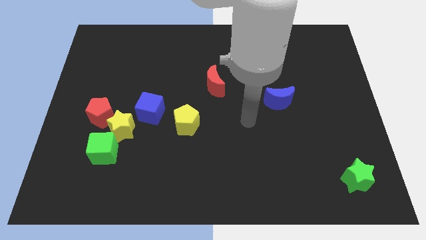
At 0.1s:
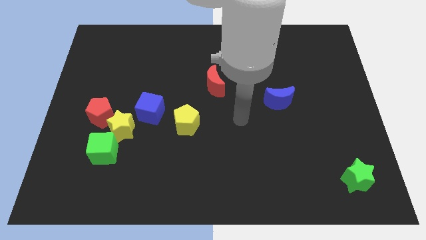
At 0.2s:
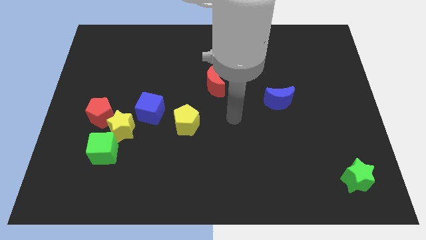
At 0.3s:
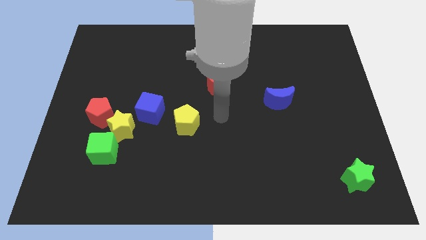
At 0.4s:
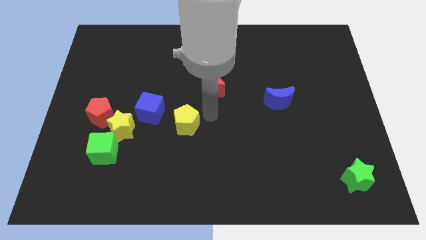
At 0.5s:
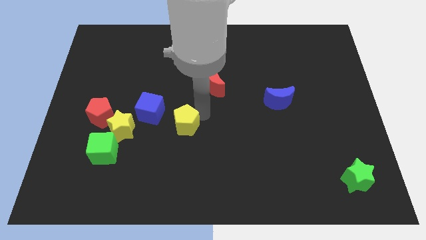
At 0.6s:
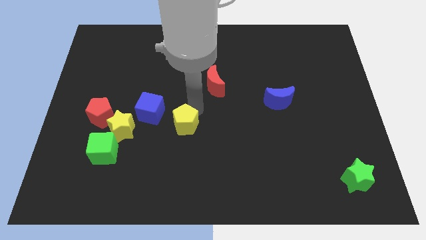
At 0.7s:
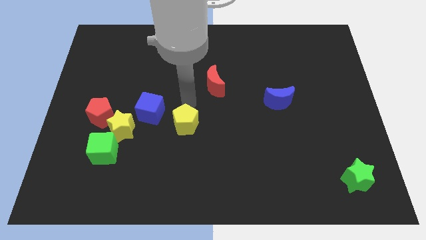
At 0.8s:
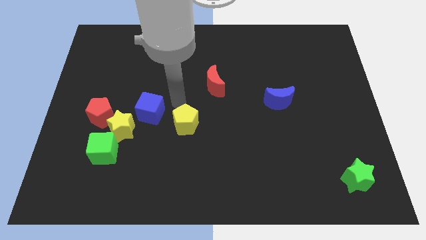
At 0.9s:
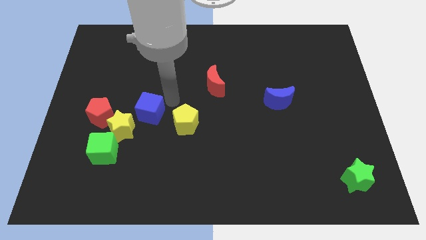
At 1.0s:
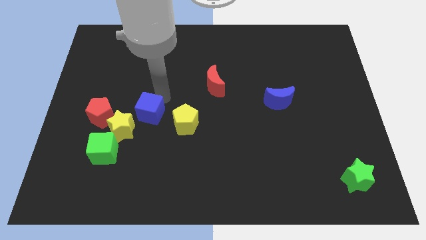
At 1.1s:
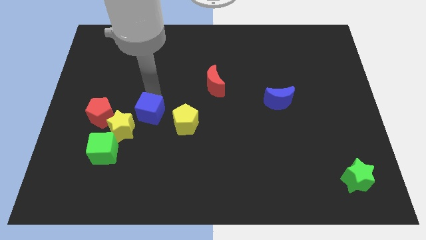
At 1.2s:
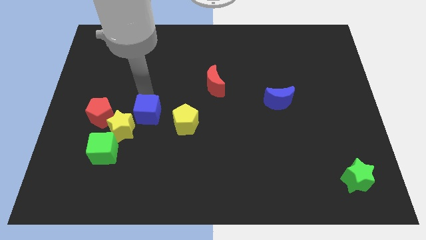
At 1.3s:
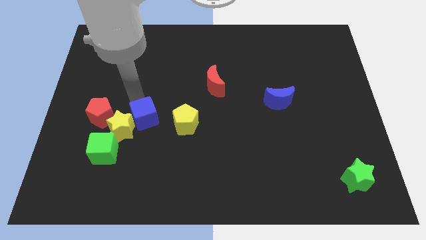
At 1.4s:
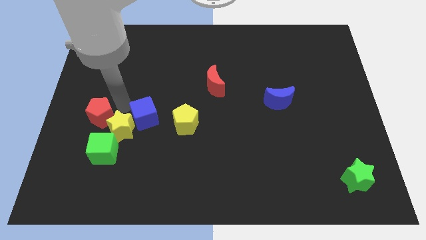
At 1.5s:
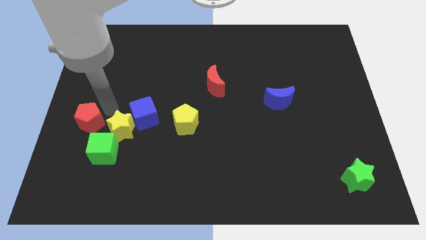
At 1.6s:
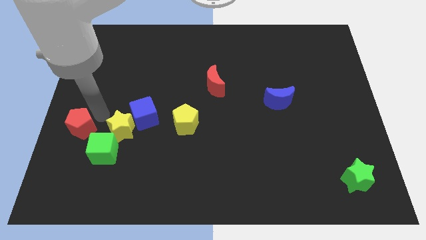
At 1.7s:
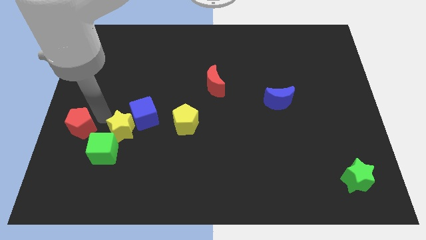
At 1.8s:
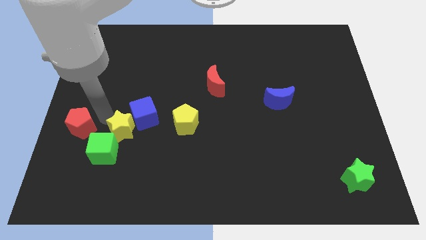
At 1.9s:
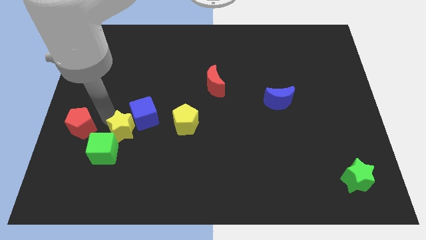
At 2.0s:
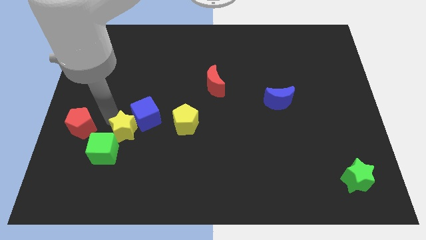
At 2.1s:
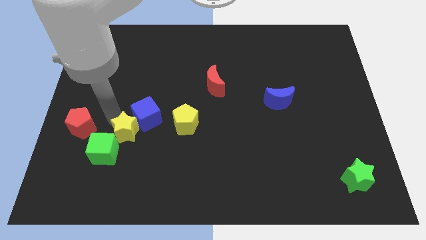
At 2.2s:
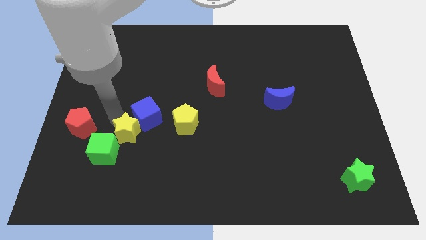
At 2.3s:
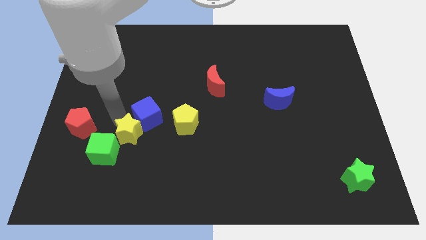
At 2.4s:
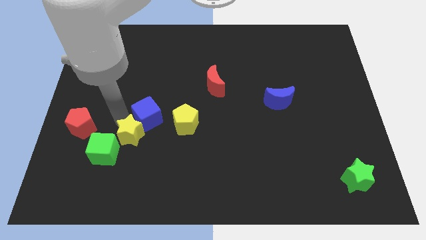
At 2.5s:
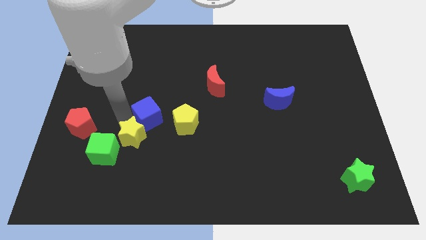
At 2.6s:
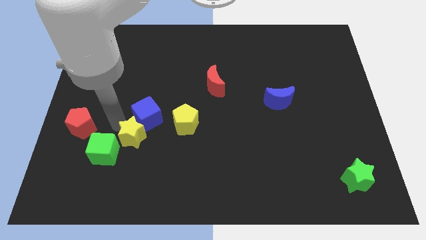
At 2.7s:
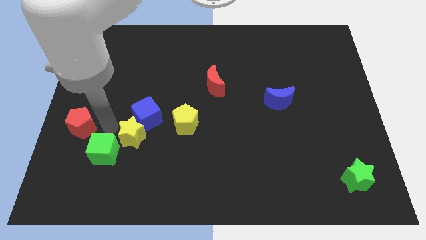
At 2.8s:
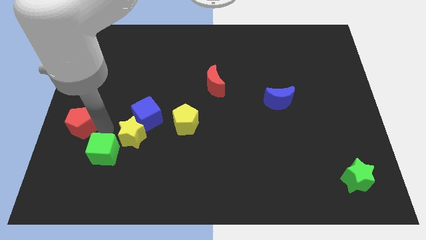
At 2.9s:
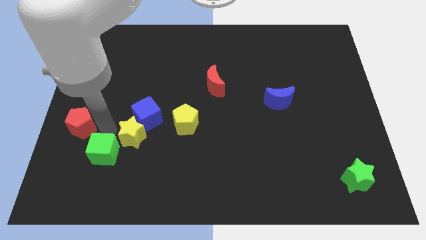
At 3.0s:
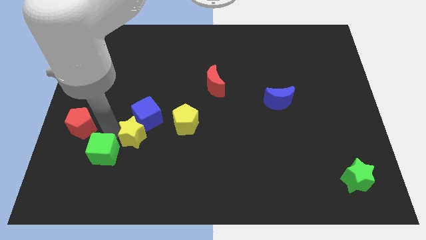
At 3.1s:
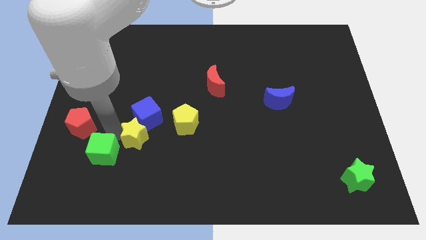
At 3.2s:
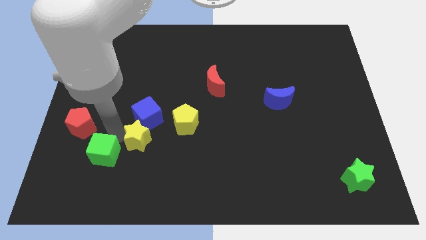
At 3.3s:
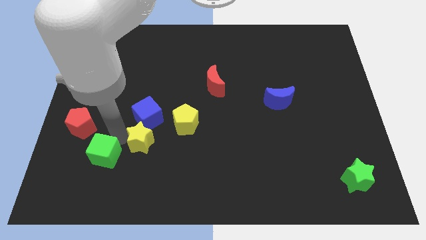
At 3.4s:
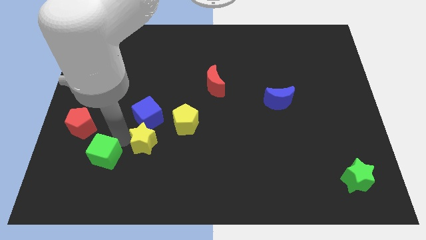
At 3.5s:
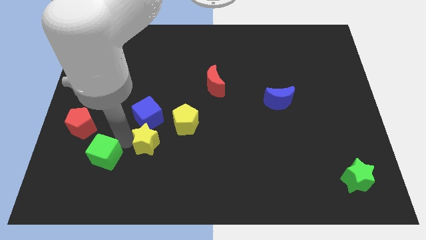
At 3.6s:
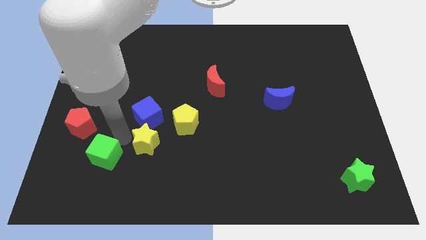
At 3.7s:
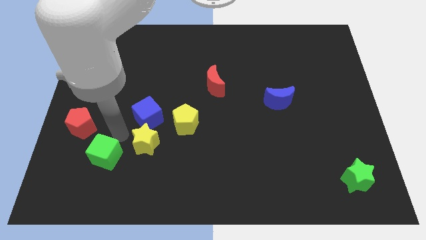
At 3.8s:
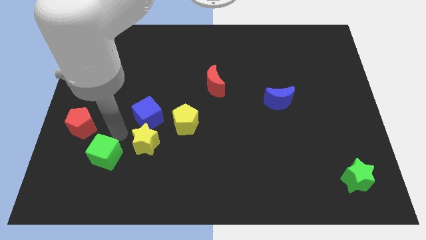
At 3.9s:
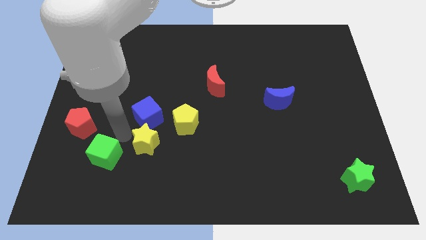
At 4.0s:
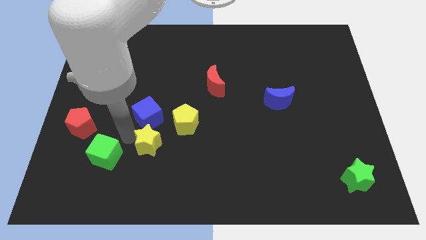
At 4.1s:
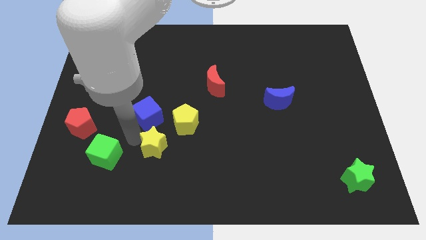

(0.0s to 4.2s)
move the yellow star away from the red pentagon, green cube, and blue cube

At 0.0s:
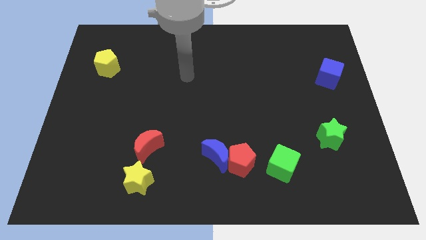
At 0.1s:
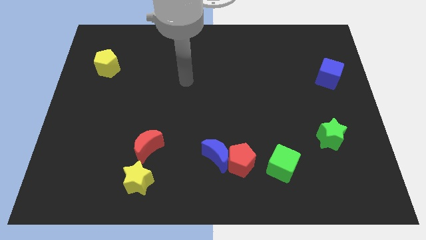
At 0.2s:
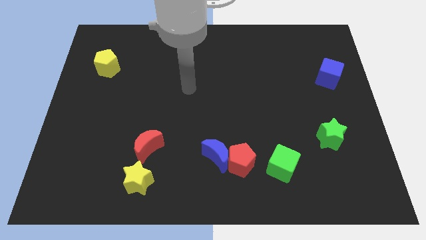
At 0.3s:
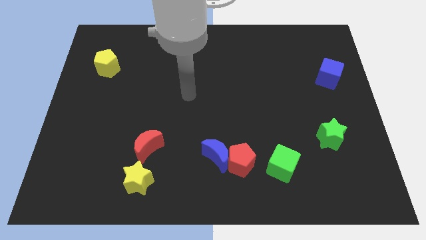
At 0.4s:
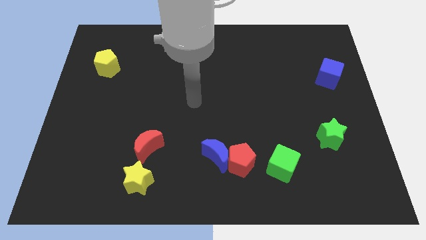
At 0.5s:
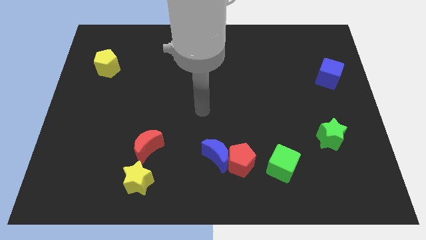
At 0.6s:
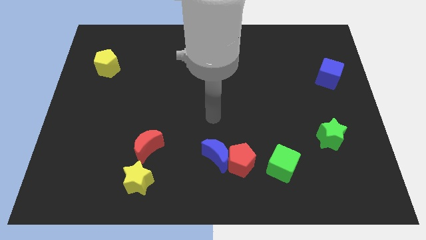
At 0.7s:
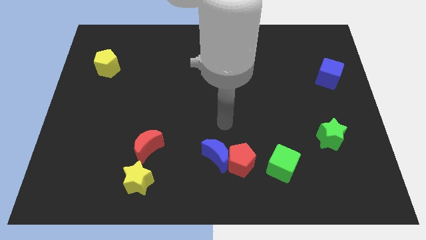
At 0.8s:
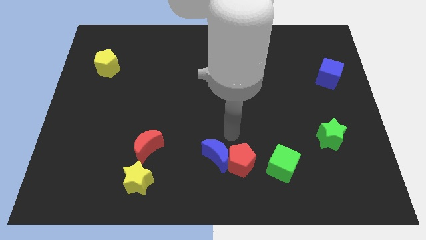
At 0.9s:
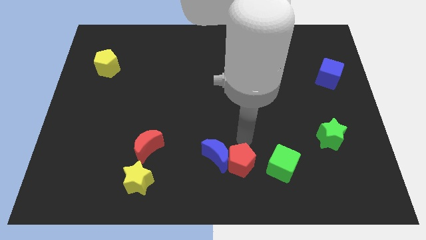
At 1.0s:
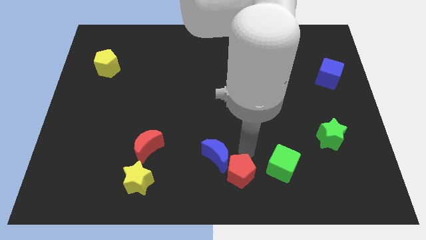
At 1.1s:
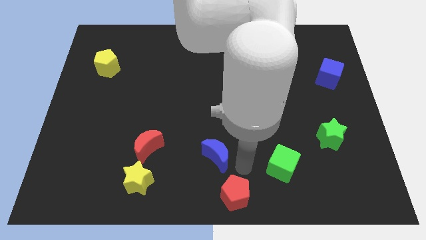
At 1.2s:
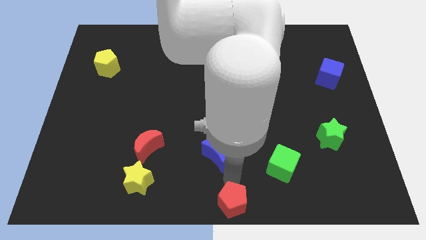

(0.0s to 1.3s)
move the blue moon away from the red pentagon

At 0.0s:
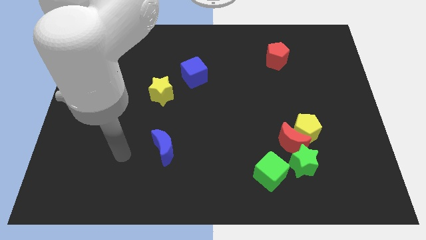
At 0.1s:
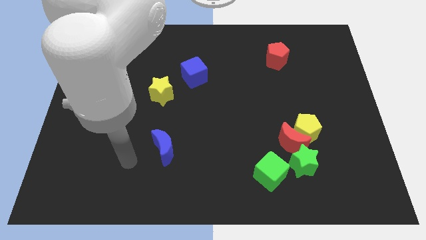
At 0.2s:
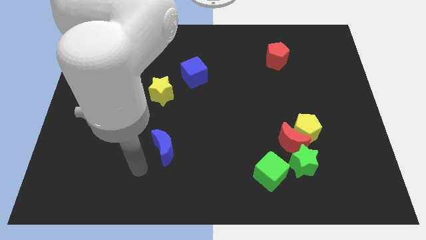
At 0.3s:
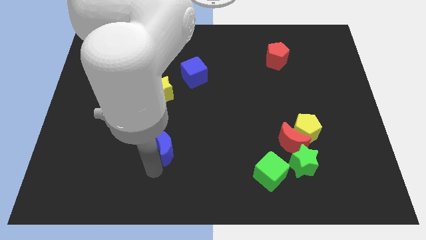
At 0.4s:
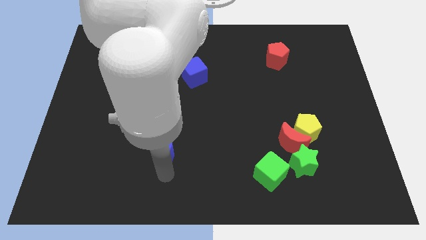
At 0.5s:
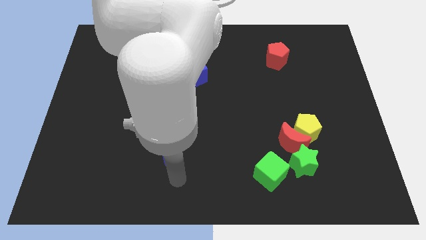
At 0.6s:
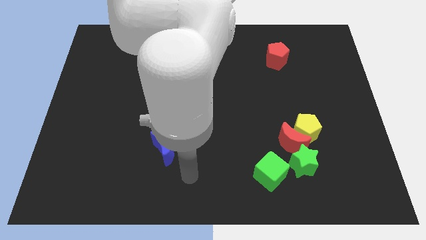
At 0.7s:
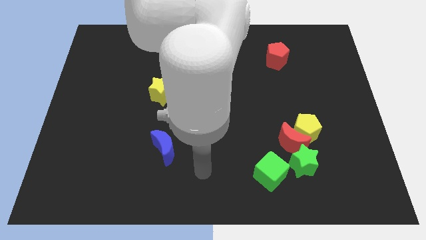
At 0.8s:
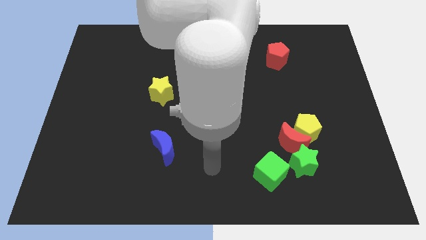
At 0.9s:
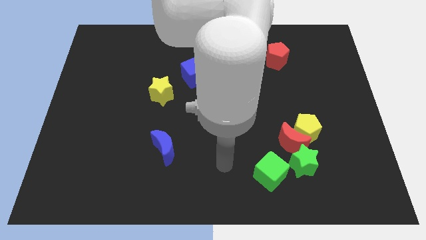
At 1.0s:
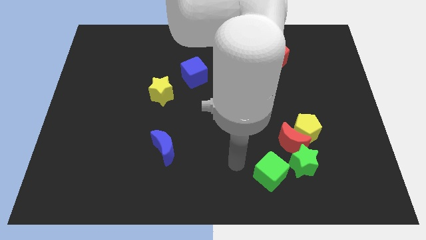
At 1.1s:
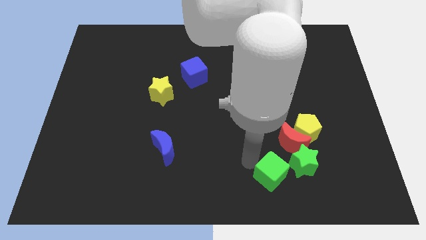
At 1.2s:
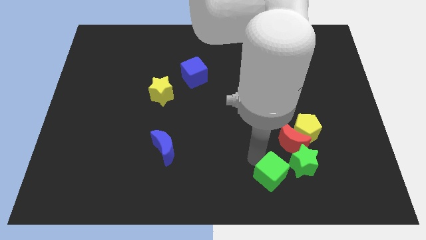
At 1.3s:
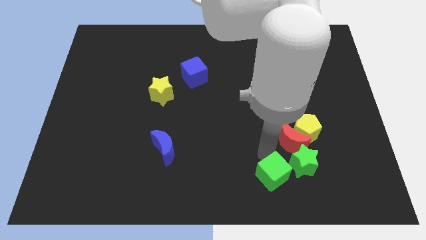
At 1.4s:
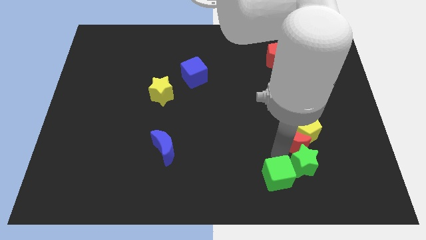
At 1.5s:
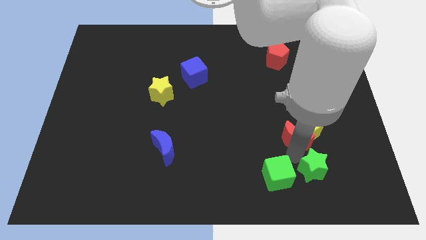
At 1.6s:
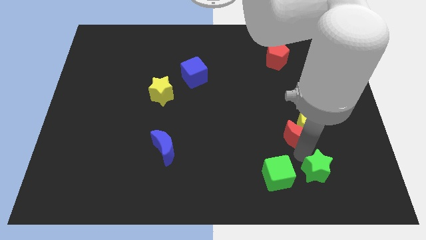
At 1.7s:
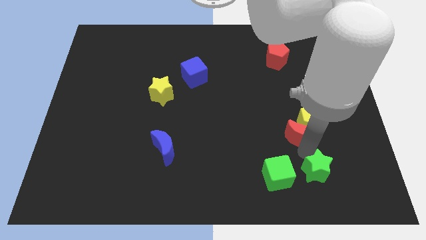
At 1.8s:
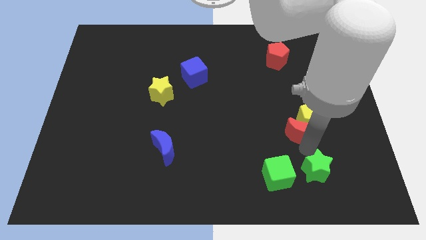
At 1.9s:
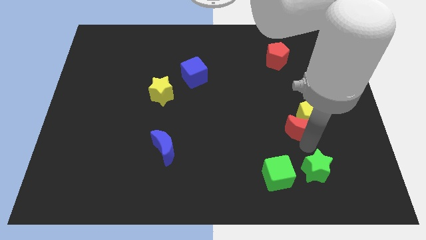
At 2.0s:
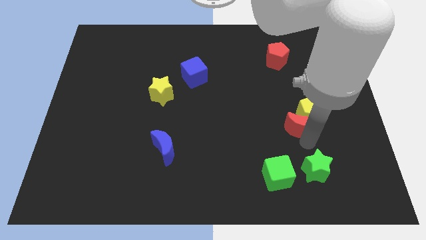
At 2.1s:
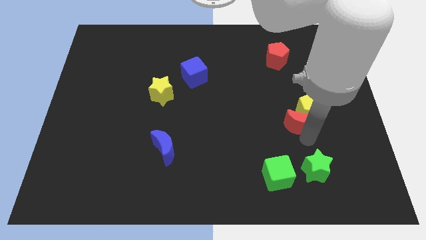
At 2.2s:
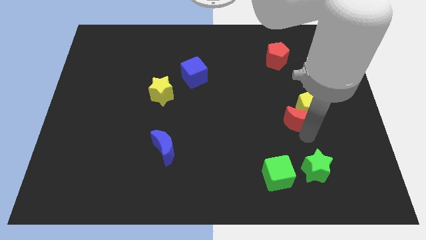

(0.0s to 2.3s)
separate the yellow pentagon from the red moon and green star

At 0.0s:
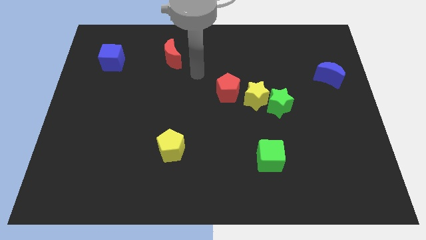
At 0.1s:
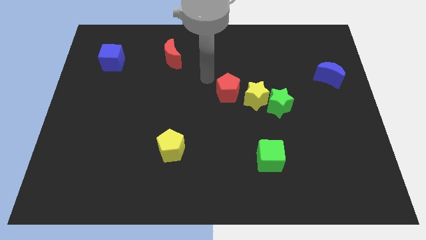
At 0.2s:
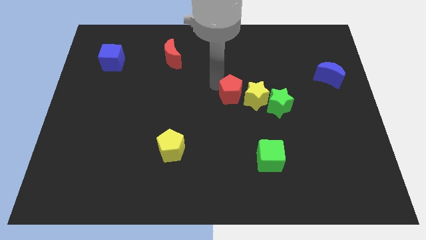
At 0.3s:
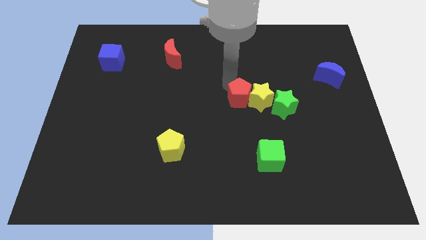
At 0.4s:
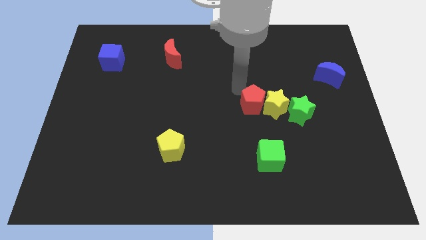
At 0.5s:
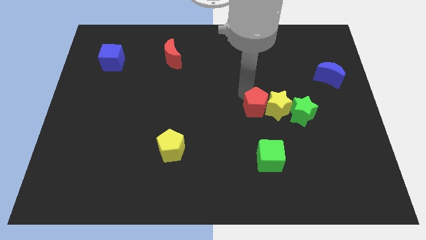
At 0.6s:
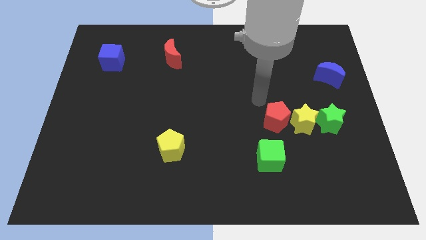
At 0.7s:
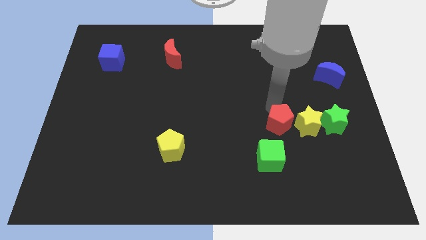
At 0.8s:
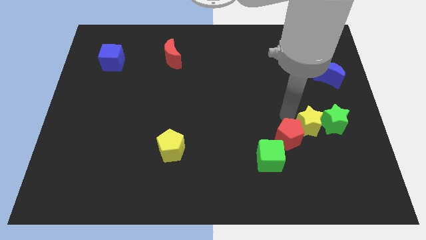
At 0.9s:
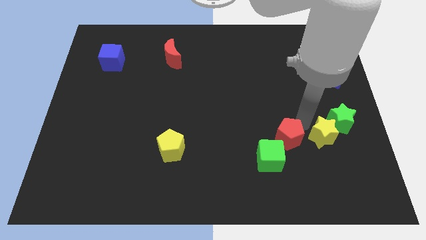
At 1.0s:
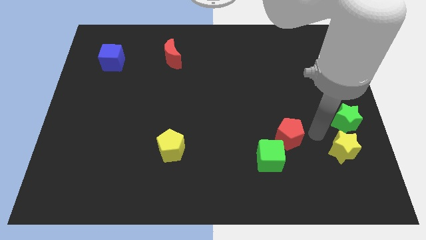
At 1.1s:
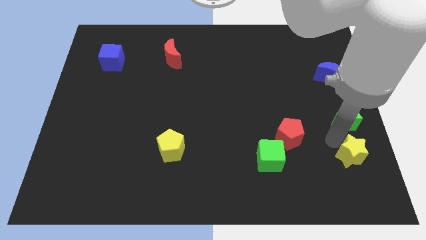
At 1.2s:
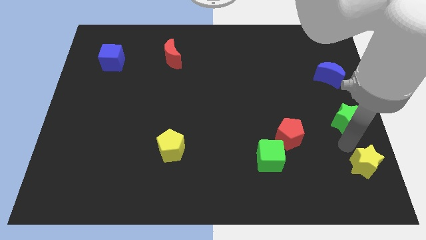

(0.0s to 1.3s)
separate the green star from the yellow star

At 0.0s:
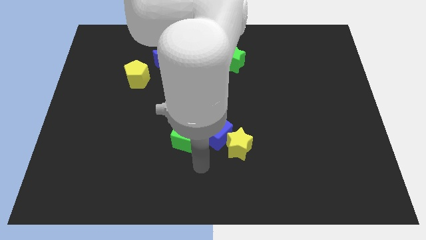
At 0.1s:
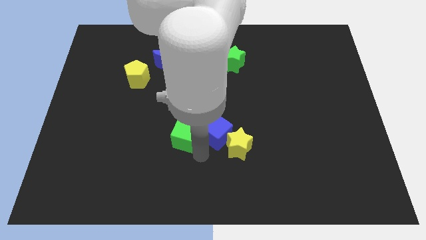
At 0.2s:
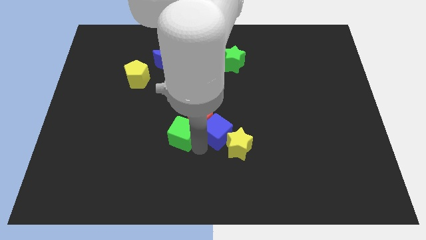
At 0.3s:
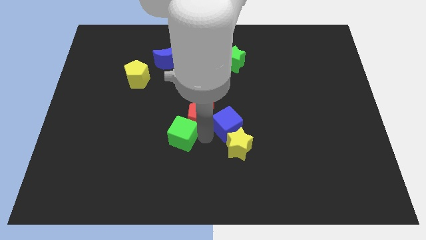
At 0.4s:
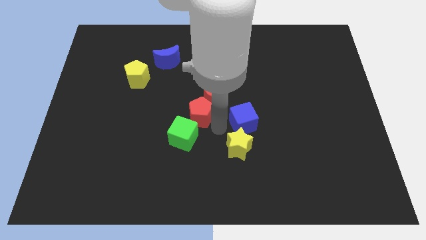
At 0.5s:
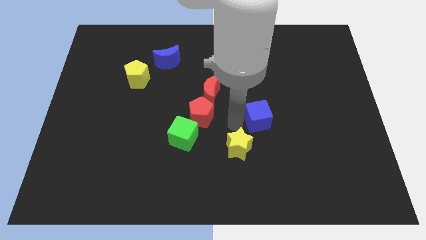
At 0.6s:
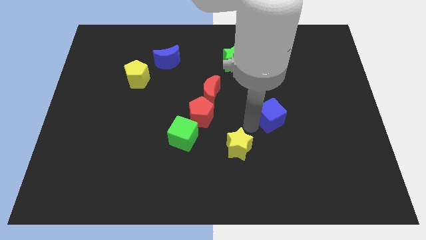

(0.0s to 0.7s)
move the yellow star away from the blue cube
